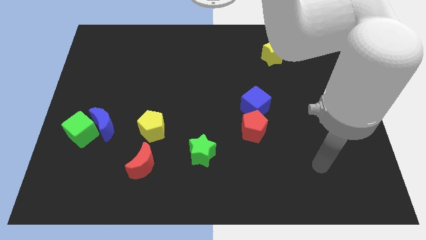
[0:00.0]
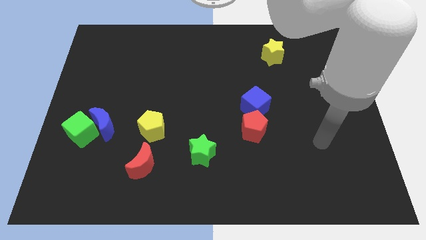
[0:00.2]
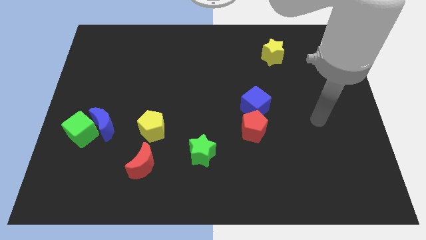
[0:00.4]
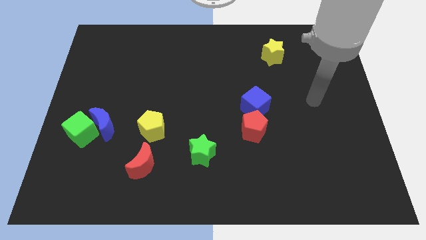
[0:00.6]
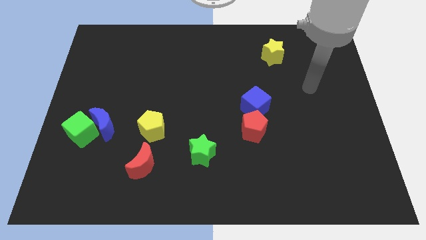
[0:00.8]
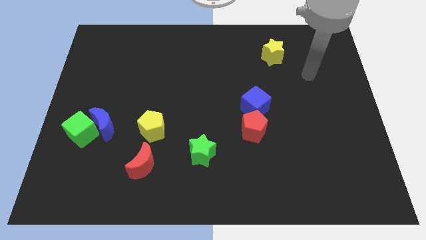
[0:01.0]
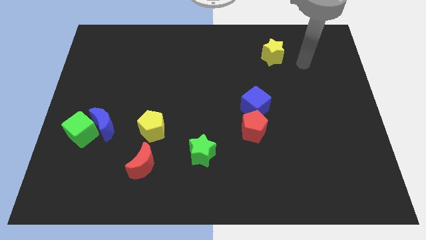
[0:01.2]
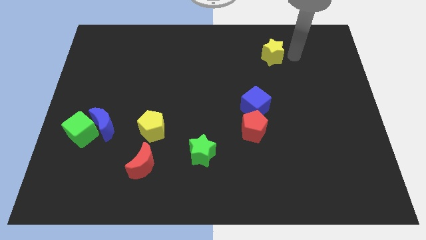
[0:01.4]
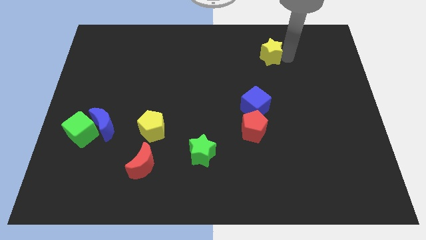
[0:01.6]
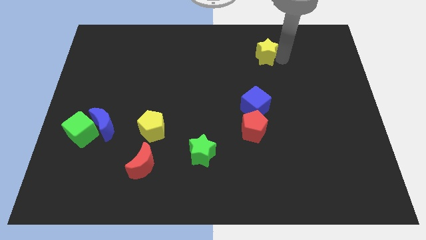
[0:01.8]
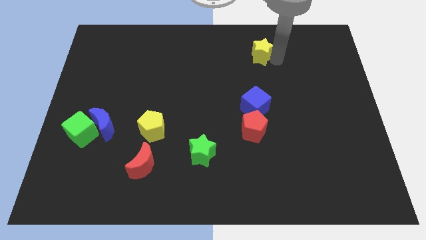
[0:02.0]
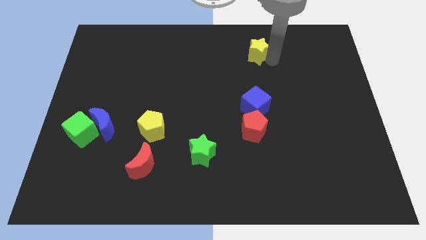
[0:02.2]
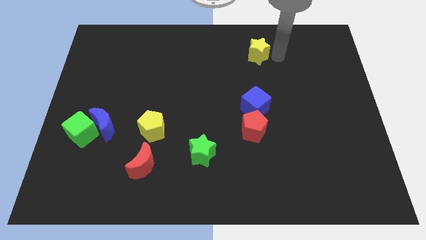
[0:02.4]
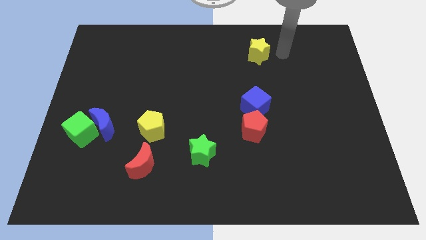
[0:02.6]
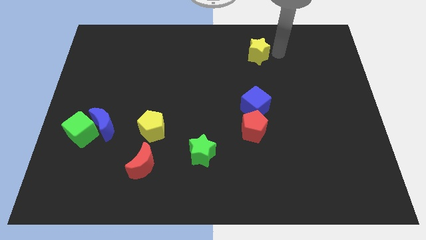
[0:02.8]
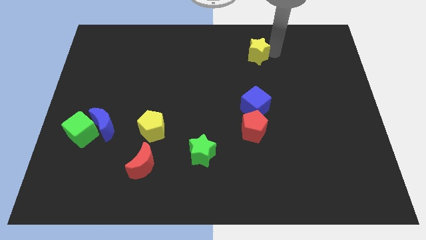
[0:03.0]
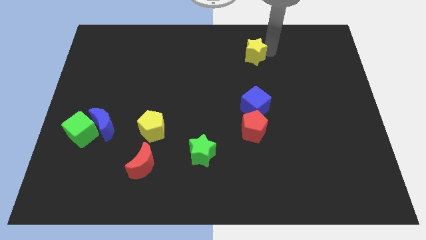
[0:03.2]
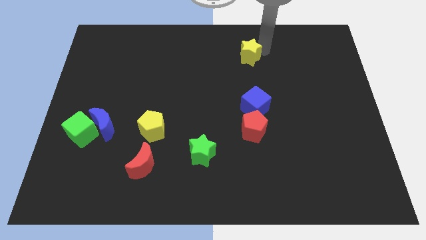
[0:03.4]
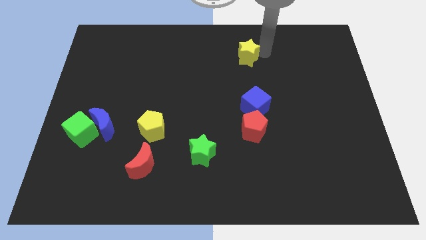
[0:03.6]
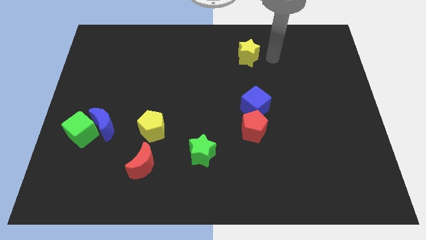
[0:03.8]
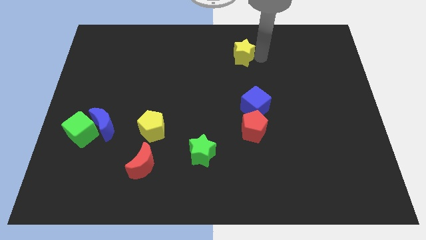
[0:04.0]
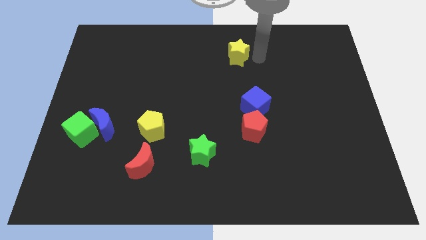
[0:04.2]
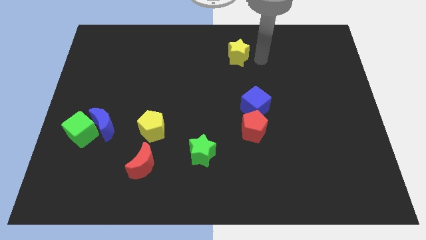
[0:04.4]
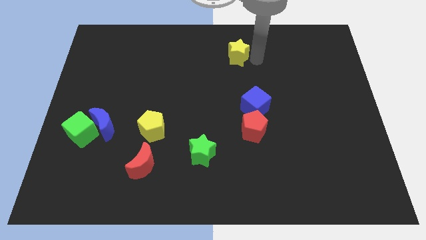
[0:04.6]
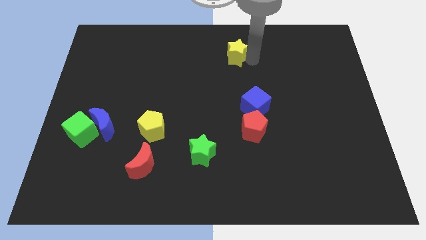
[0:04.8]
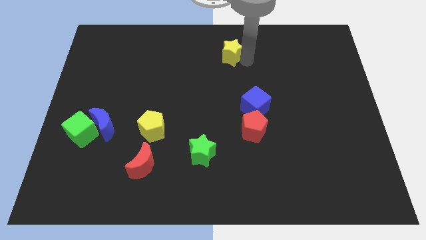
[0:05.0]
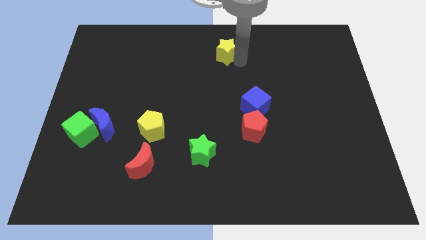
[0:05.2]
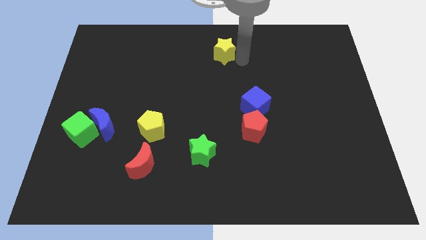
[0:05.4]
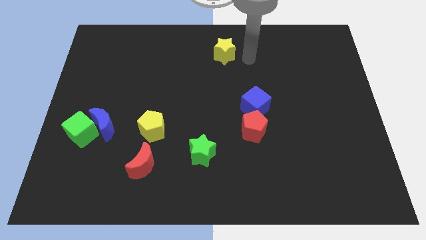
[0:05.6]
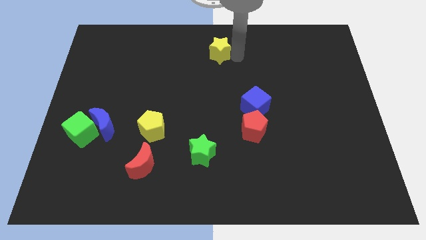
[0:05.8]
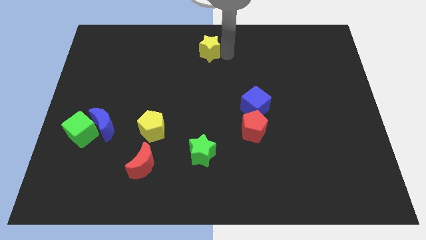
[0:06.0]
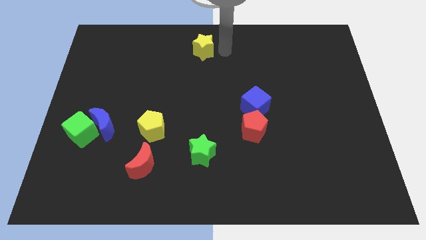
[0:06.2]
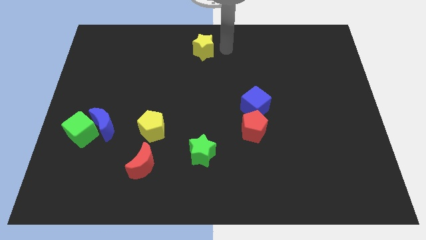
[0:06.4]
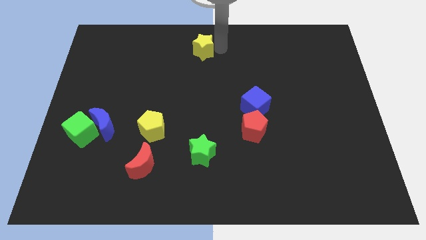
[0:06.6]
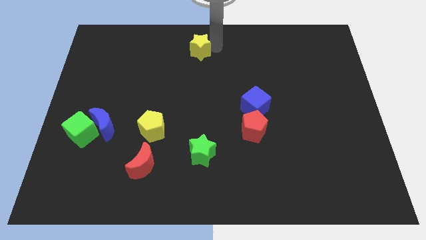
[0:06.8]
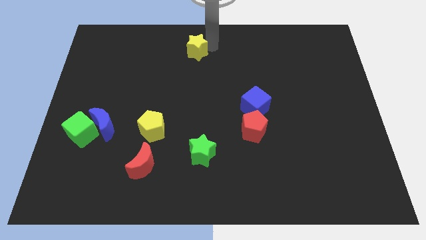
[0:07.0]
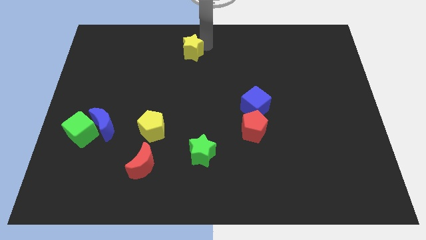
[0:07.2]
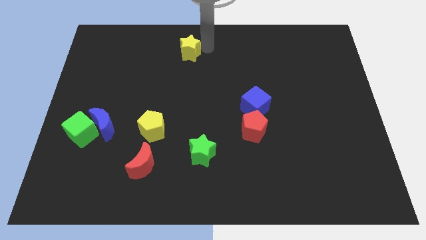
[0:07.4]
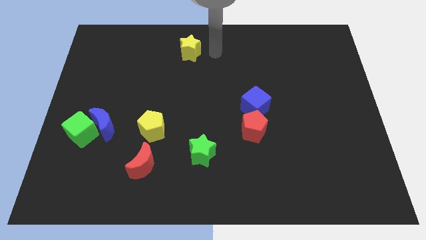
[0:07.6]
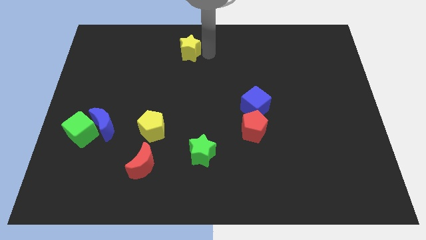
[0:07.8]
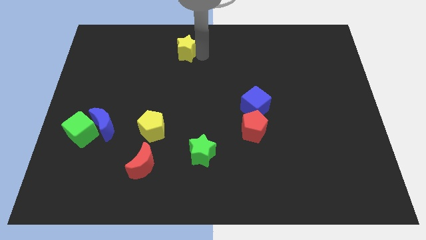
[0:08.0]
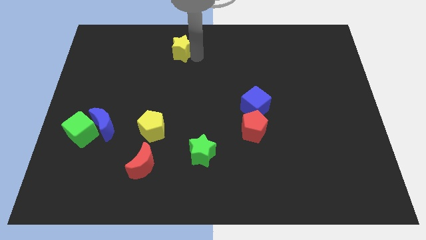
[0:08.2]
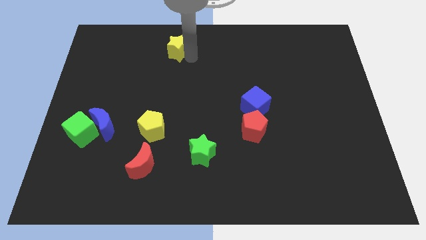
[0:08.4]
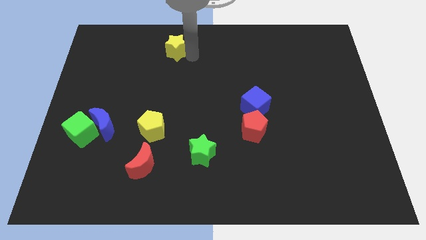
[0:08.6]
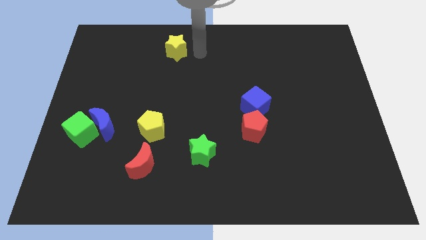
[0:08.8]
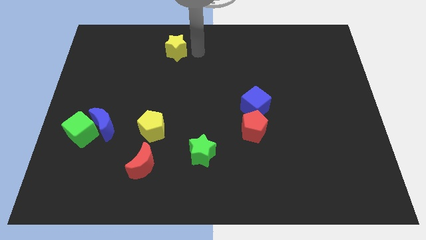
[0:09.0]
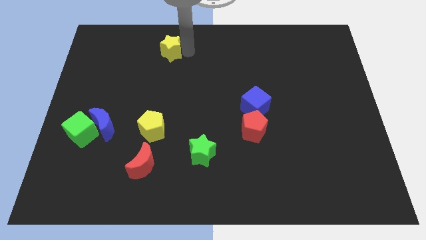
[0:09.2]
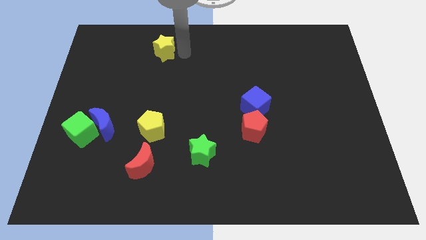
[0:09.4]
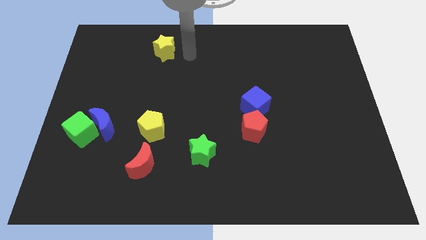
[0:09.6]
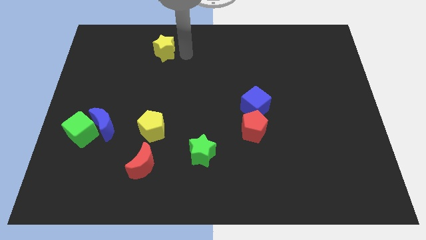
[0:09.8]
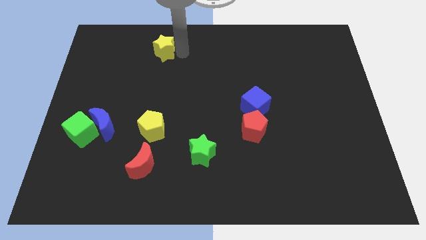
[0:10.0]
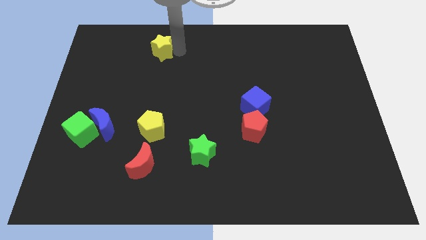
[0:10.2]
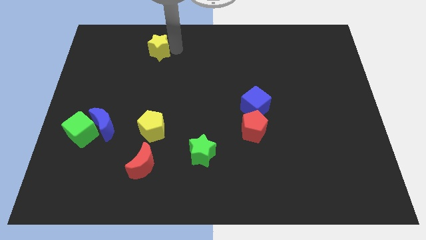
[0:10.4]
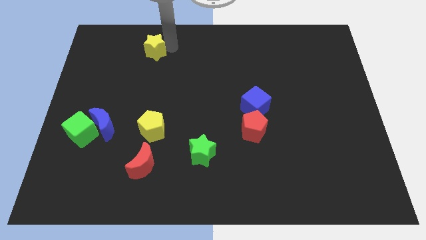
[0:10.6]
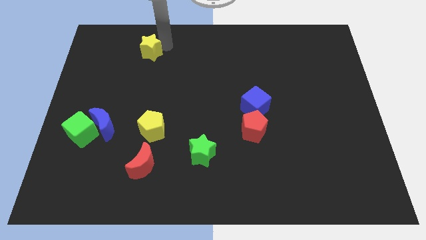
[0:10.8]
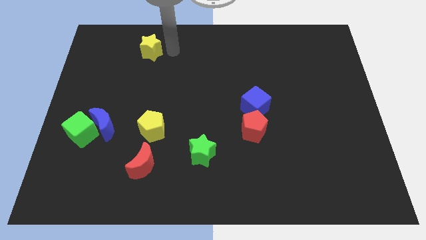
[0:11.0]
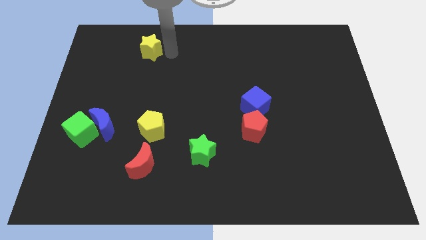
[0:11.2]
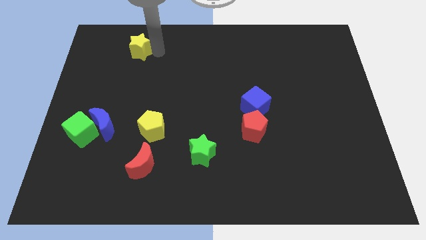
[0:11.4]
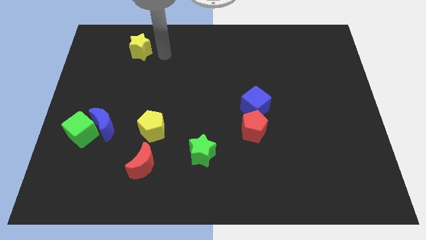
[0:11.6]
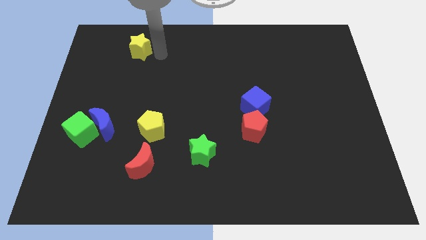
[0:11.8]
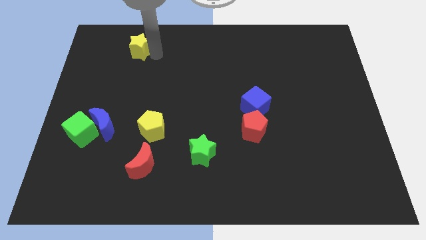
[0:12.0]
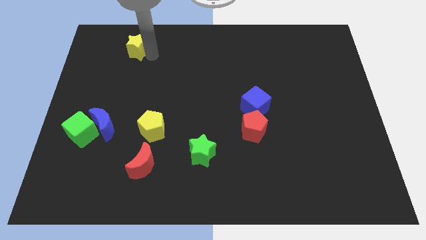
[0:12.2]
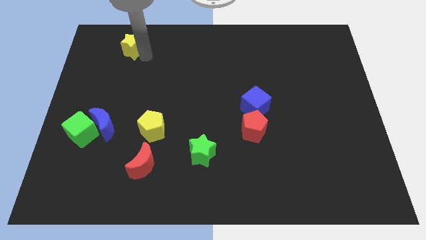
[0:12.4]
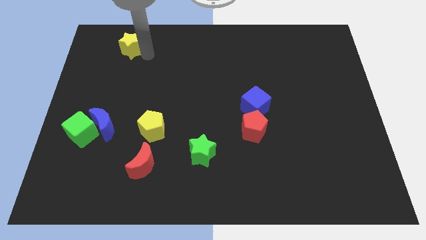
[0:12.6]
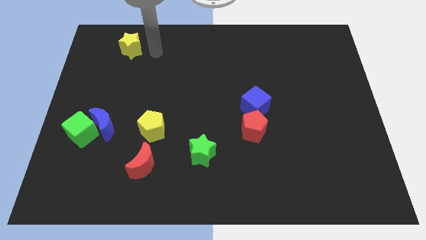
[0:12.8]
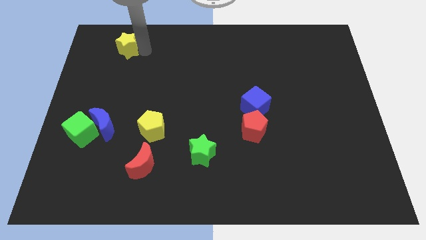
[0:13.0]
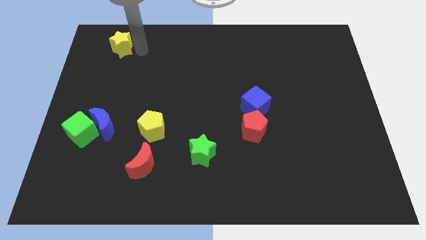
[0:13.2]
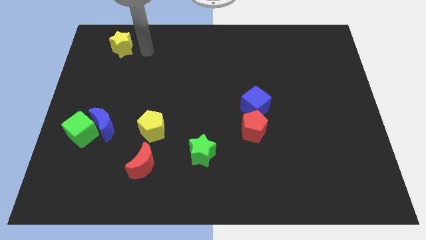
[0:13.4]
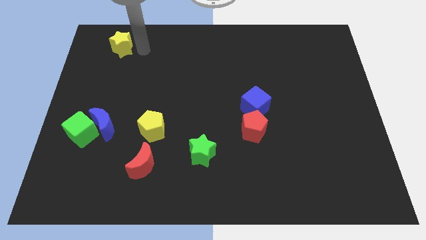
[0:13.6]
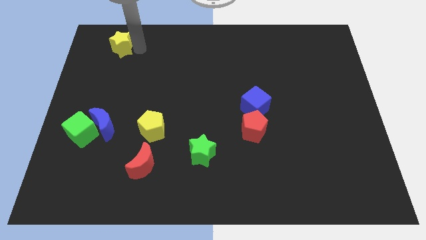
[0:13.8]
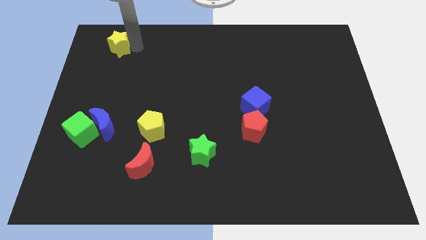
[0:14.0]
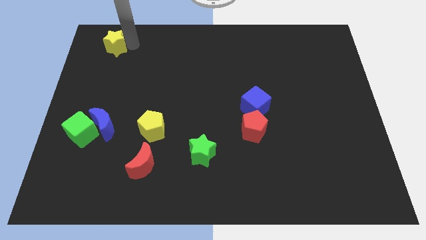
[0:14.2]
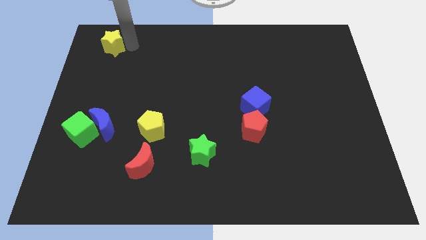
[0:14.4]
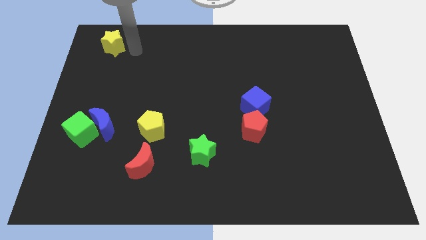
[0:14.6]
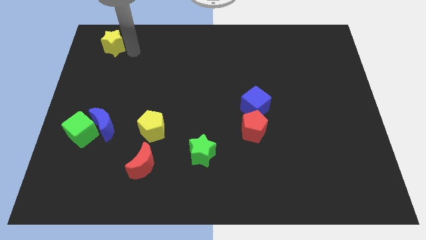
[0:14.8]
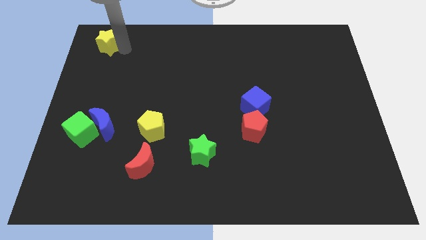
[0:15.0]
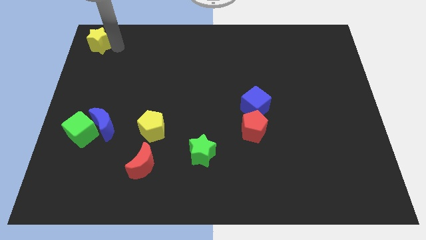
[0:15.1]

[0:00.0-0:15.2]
put the yellow star to the top left of the board
